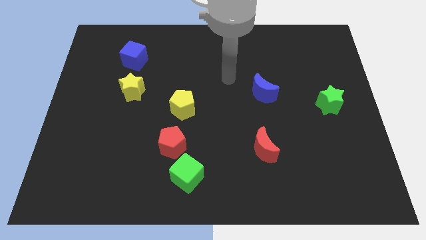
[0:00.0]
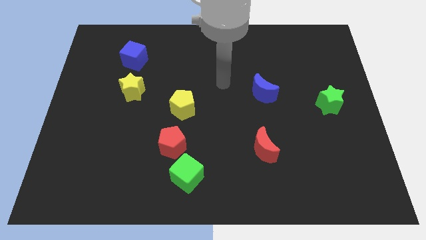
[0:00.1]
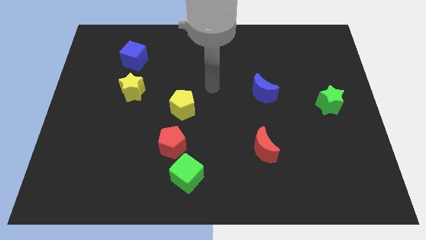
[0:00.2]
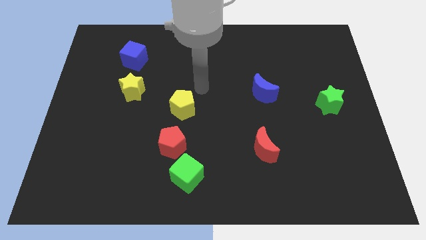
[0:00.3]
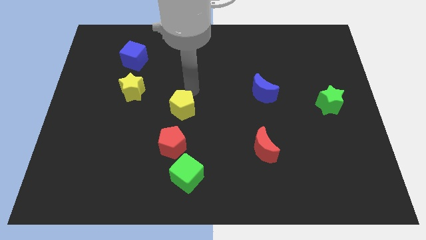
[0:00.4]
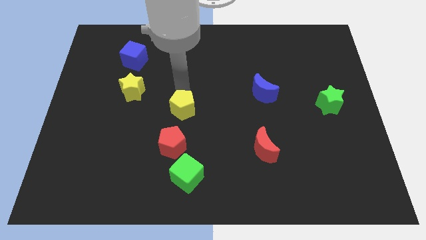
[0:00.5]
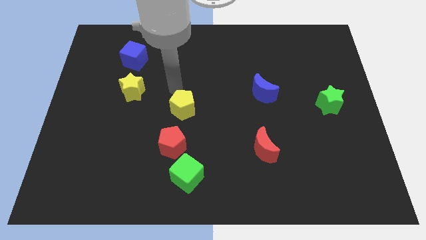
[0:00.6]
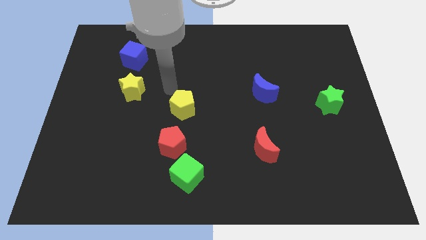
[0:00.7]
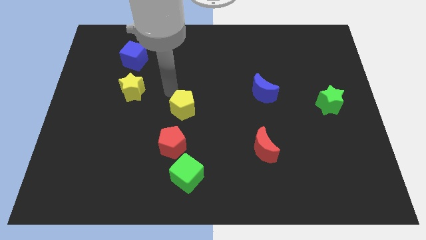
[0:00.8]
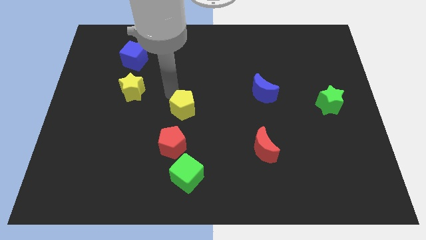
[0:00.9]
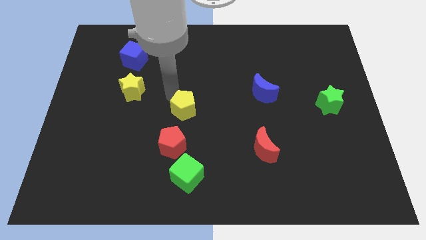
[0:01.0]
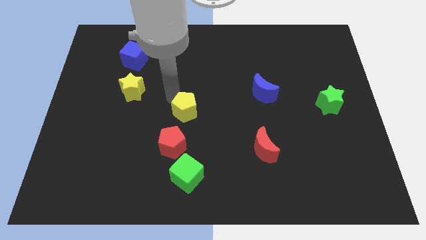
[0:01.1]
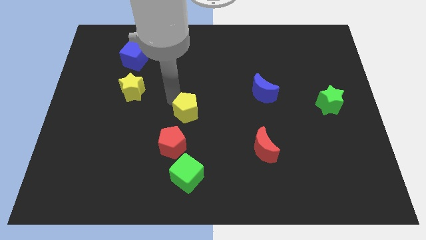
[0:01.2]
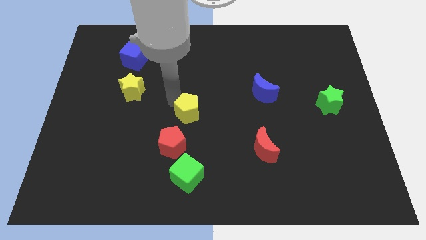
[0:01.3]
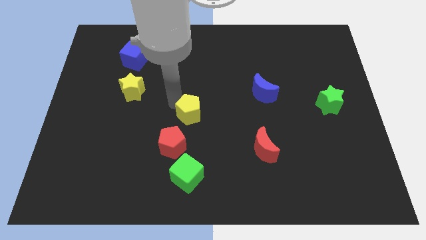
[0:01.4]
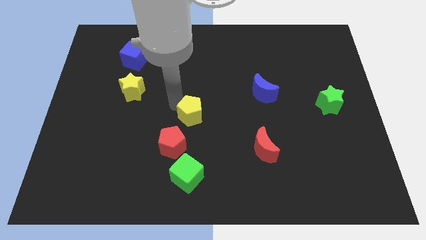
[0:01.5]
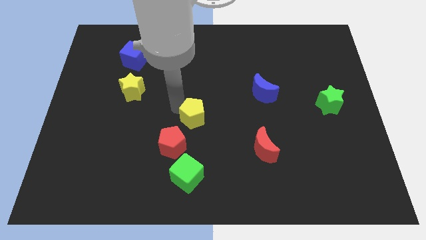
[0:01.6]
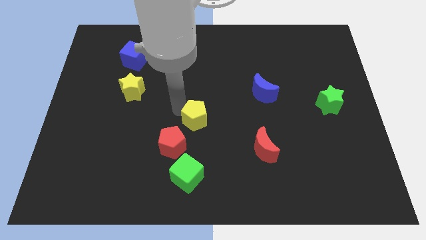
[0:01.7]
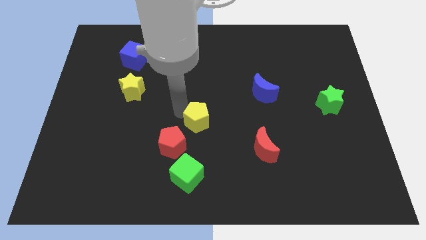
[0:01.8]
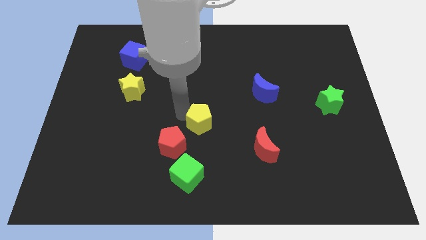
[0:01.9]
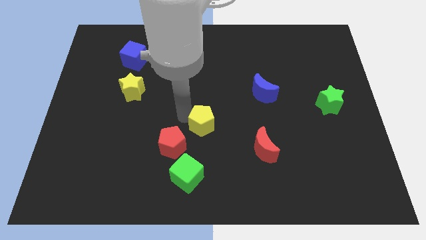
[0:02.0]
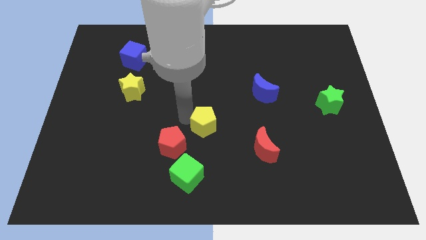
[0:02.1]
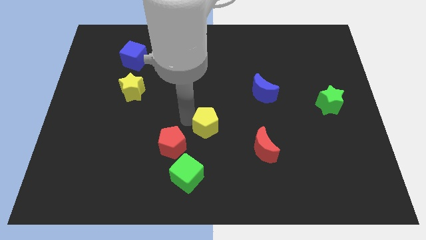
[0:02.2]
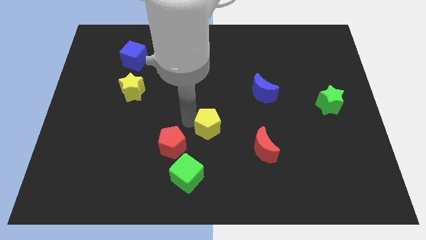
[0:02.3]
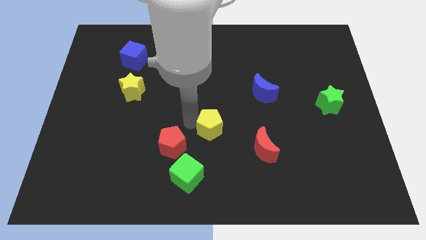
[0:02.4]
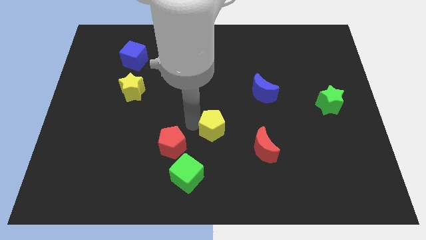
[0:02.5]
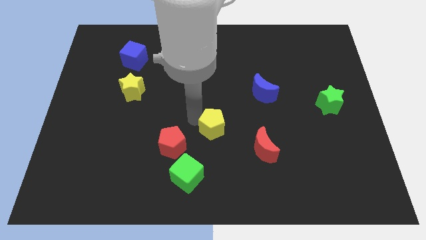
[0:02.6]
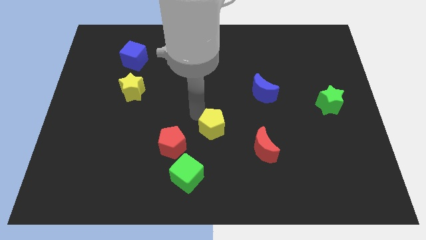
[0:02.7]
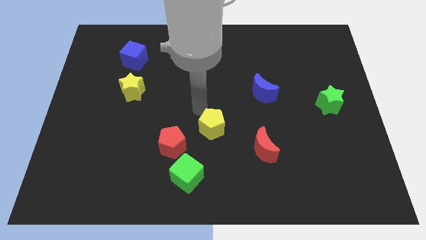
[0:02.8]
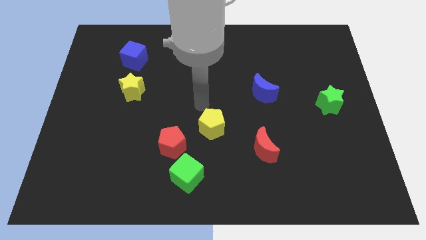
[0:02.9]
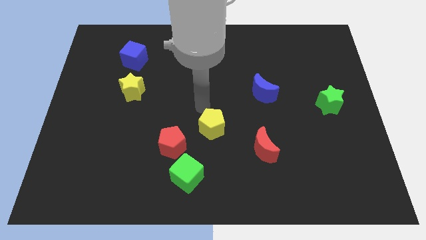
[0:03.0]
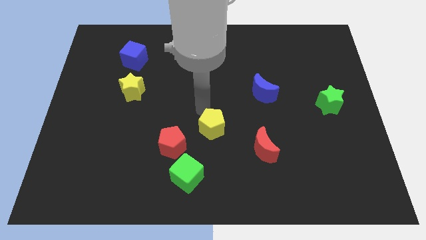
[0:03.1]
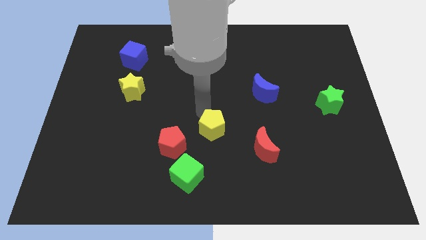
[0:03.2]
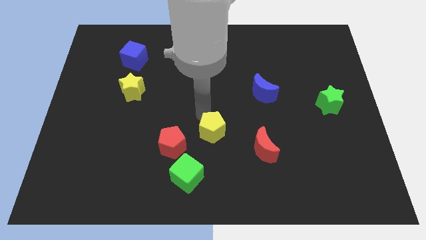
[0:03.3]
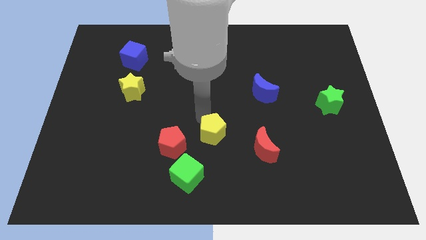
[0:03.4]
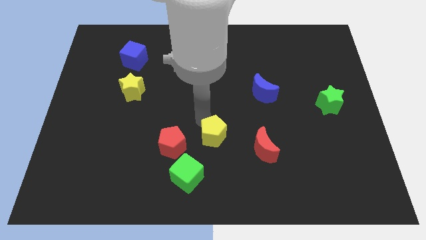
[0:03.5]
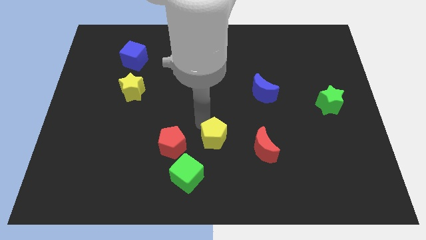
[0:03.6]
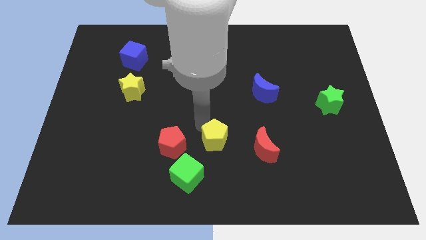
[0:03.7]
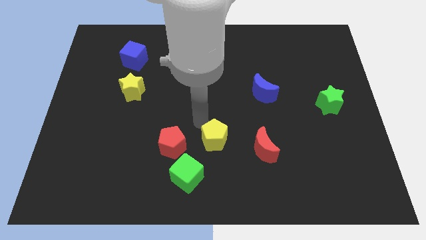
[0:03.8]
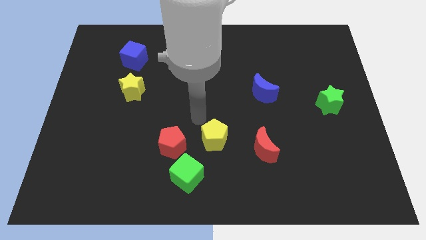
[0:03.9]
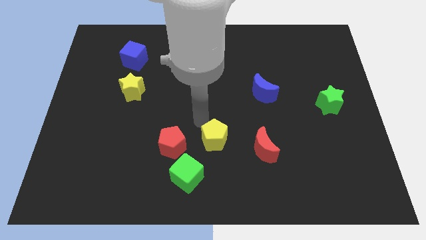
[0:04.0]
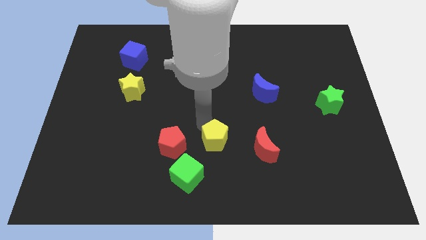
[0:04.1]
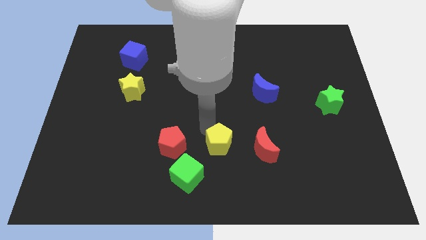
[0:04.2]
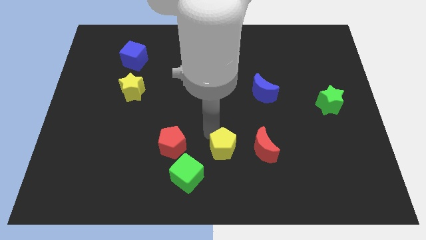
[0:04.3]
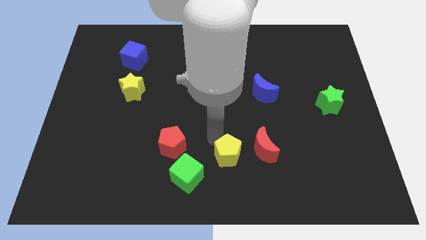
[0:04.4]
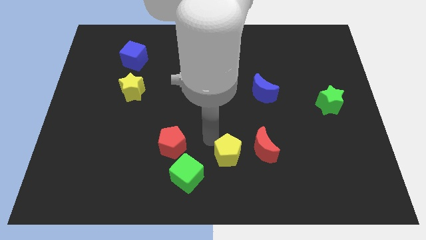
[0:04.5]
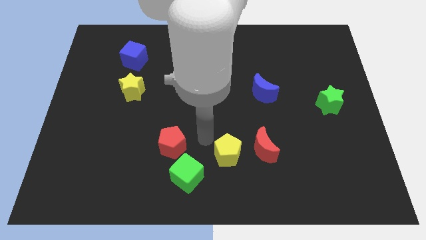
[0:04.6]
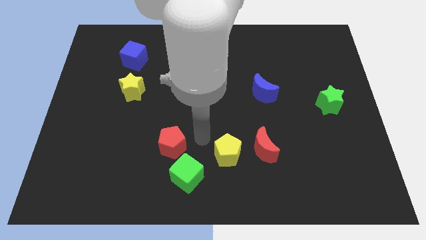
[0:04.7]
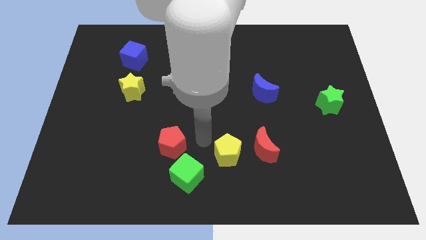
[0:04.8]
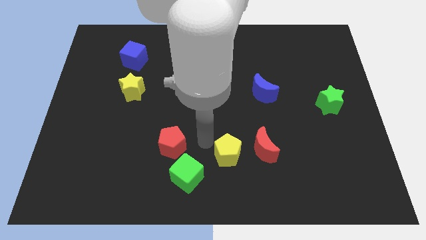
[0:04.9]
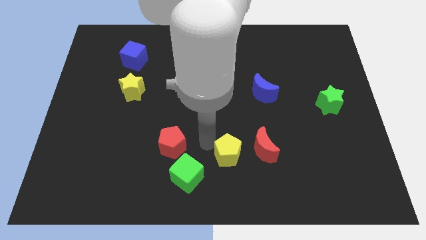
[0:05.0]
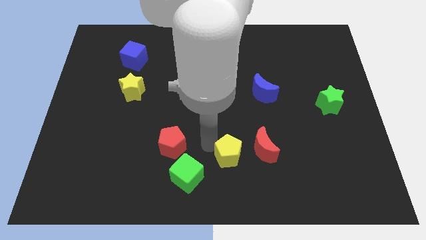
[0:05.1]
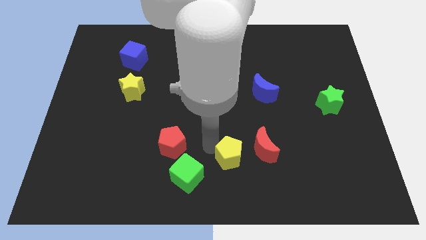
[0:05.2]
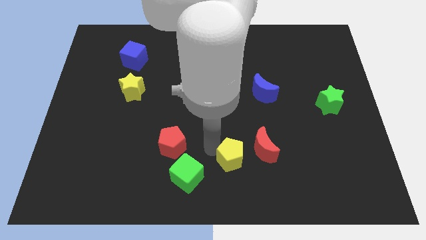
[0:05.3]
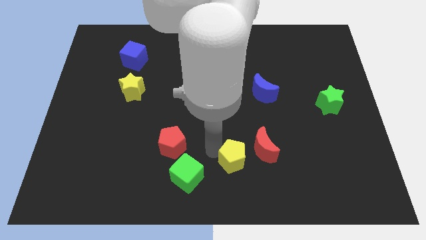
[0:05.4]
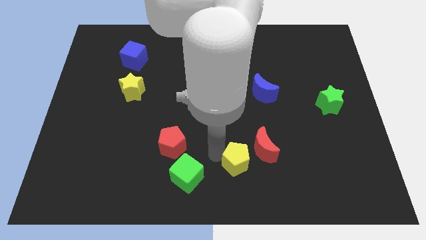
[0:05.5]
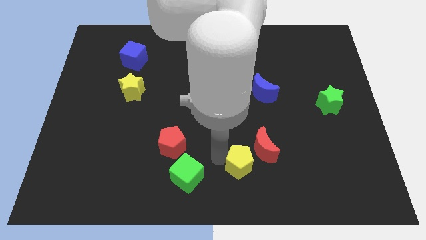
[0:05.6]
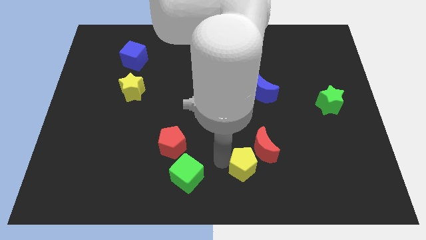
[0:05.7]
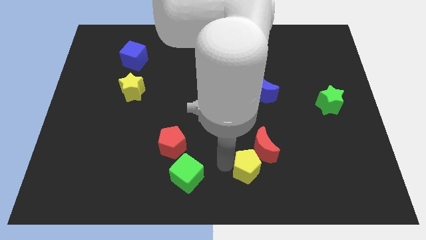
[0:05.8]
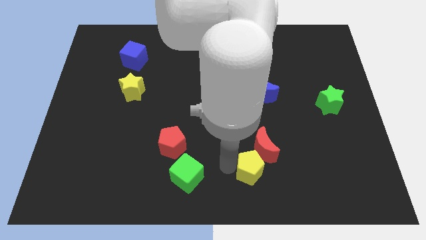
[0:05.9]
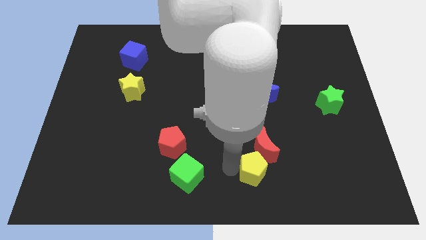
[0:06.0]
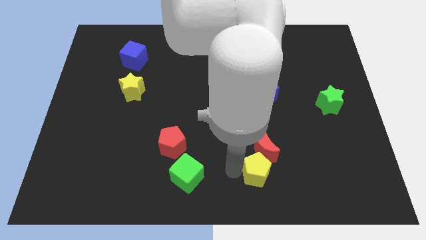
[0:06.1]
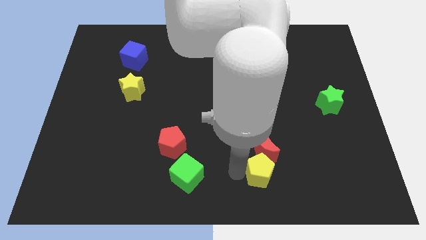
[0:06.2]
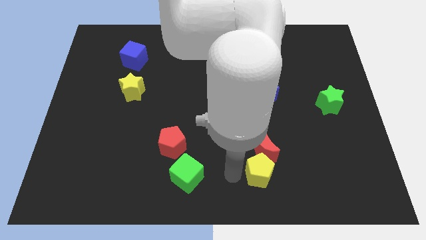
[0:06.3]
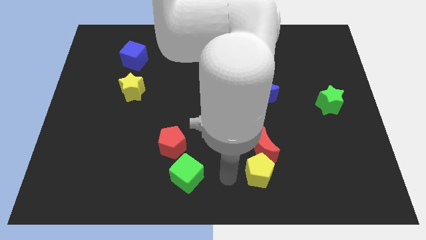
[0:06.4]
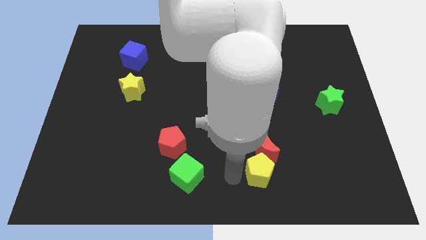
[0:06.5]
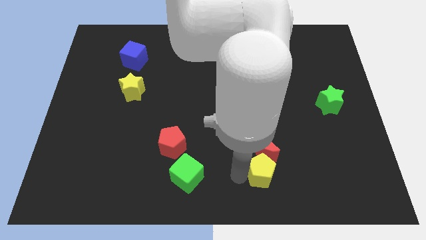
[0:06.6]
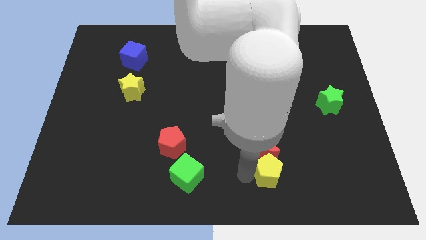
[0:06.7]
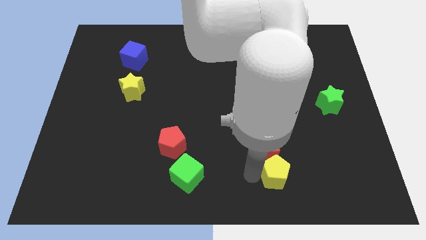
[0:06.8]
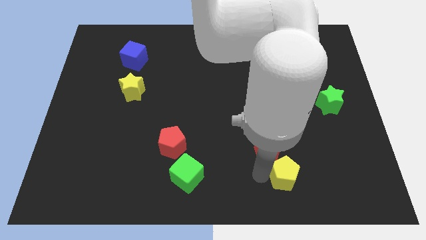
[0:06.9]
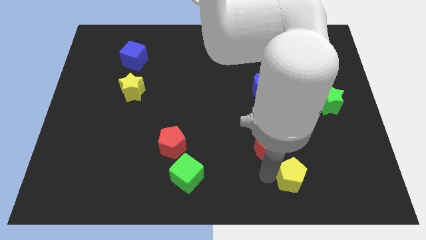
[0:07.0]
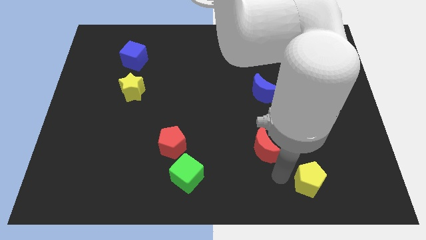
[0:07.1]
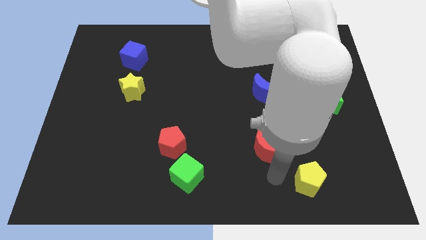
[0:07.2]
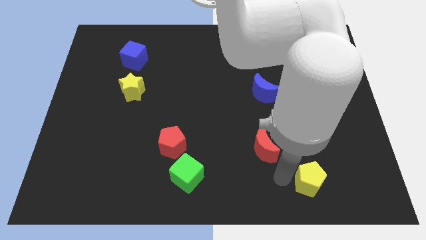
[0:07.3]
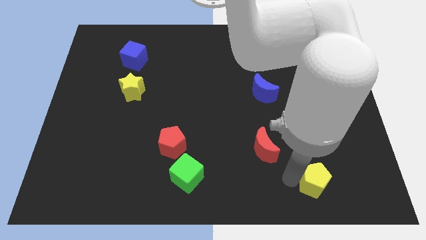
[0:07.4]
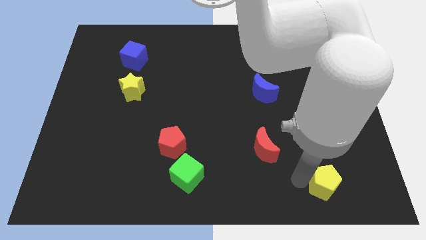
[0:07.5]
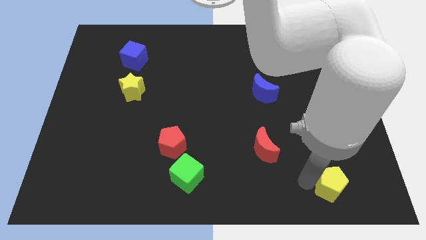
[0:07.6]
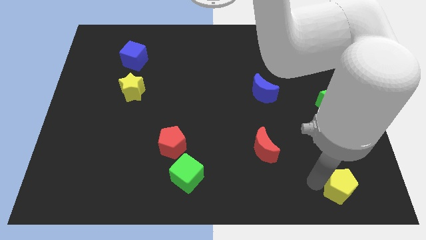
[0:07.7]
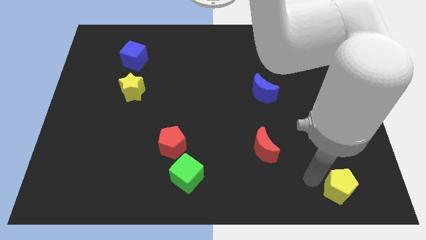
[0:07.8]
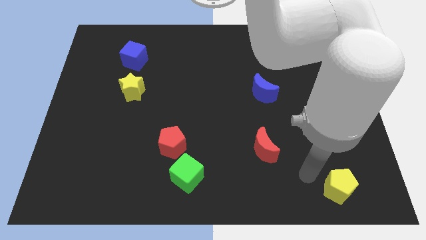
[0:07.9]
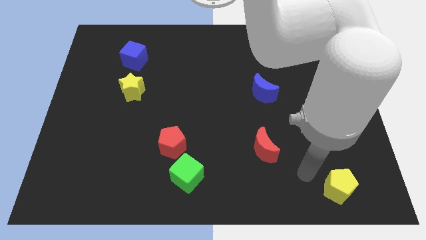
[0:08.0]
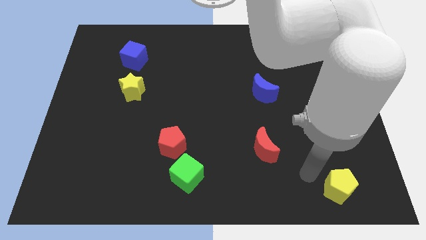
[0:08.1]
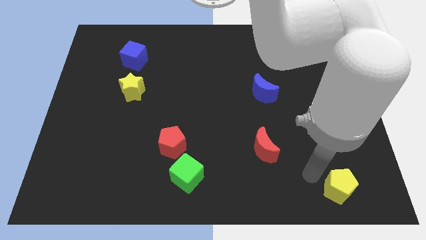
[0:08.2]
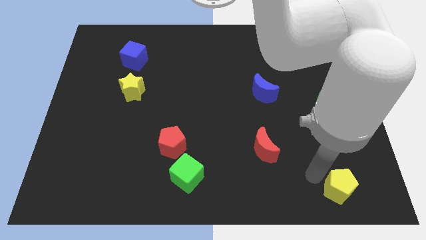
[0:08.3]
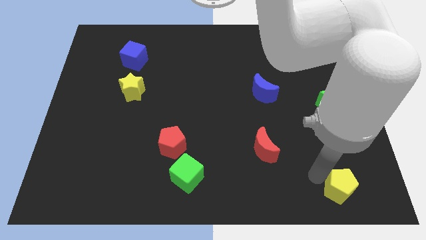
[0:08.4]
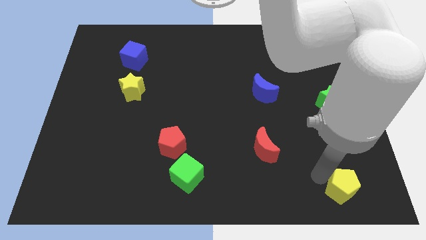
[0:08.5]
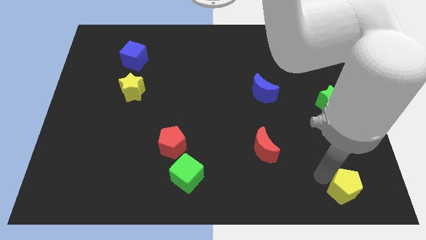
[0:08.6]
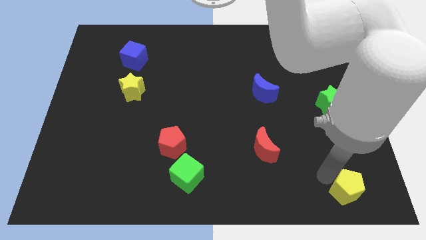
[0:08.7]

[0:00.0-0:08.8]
put the yellow pentagon to the lower right corner
